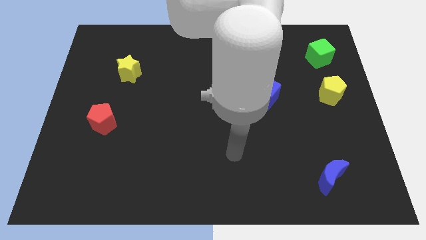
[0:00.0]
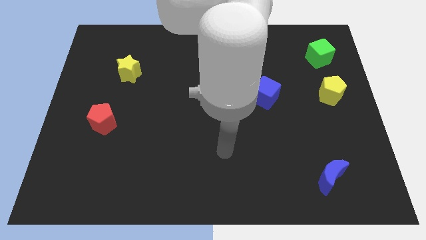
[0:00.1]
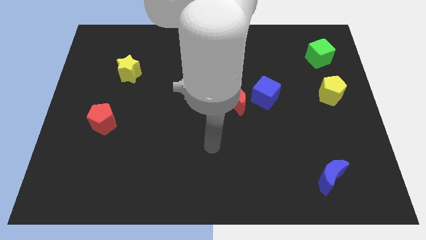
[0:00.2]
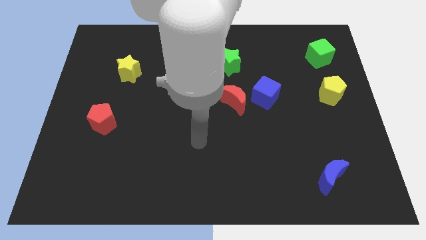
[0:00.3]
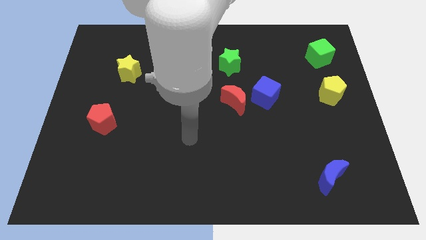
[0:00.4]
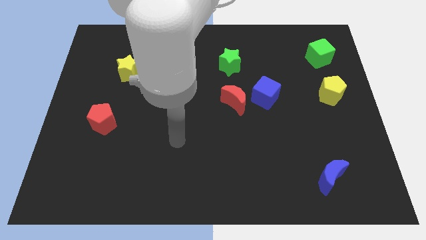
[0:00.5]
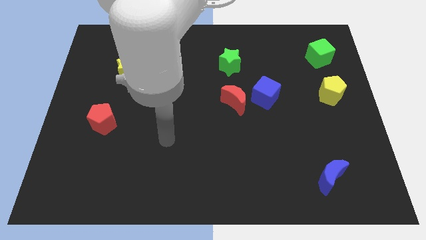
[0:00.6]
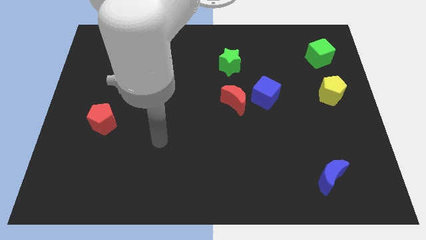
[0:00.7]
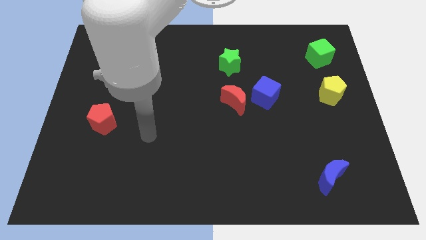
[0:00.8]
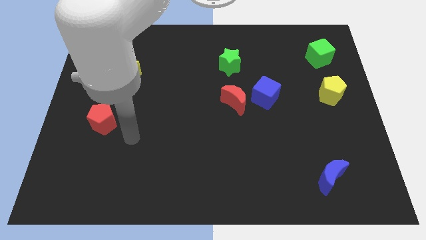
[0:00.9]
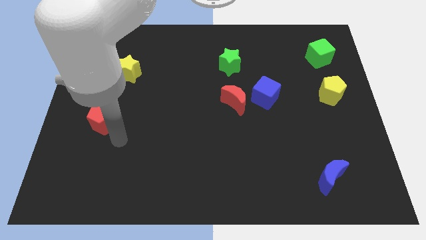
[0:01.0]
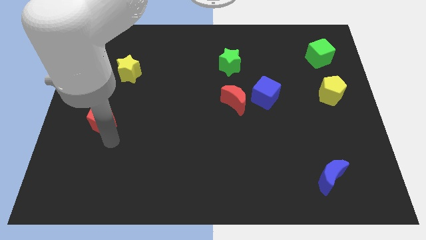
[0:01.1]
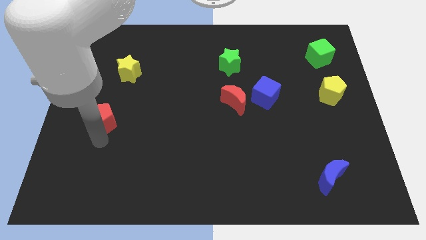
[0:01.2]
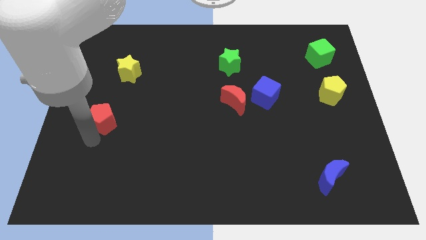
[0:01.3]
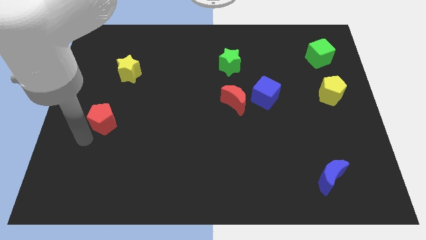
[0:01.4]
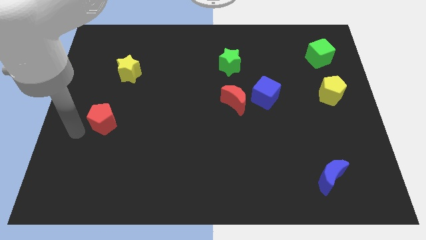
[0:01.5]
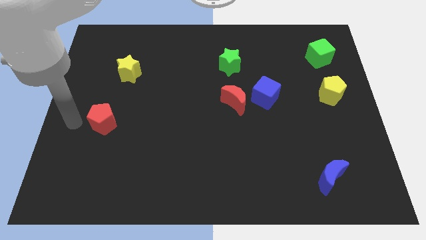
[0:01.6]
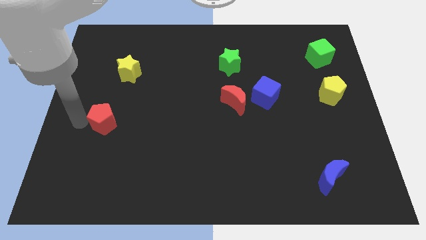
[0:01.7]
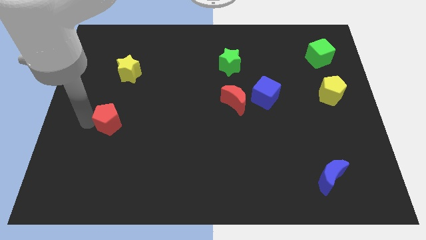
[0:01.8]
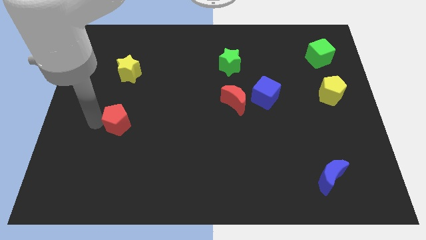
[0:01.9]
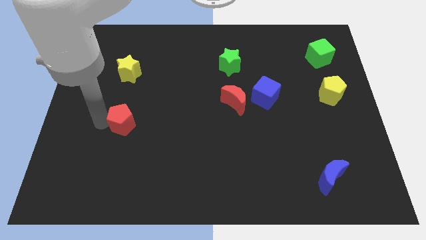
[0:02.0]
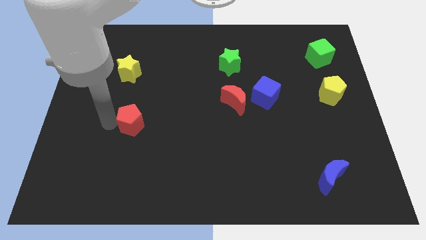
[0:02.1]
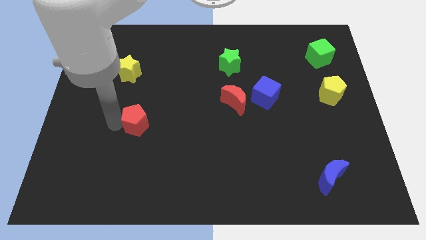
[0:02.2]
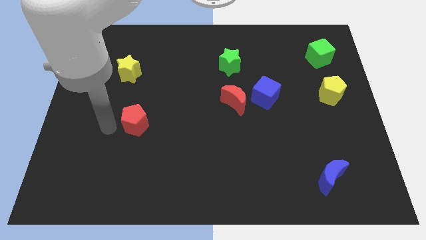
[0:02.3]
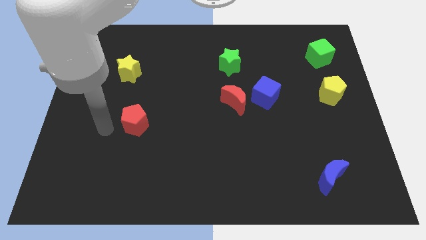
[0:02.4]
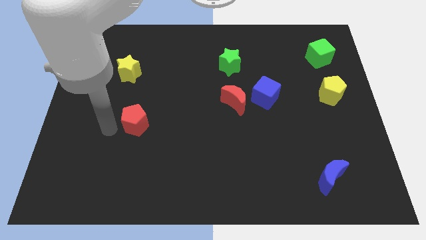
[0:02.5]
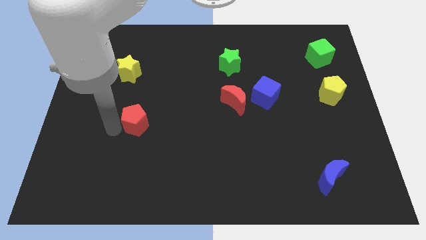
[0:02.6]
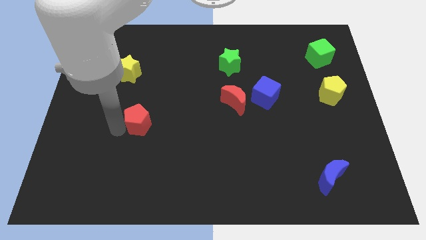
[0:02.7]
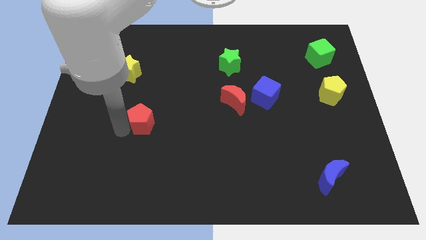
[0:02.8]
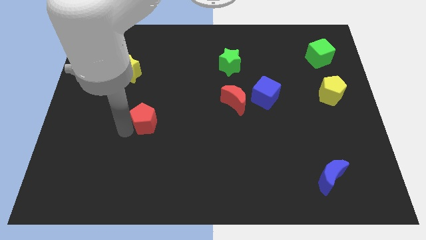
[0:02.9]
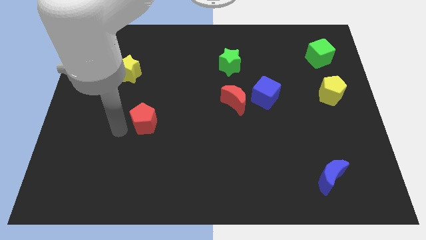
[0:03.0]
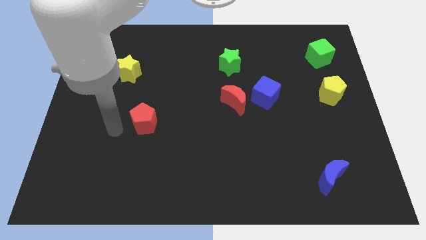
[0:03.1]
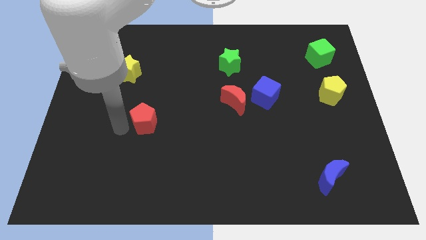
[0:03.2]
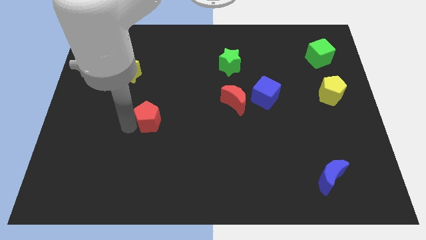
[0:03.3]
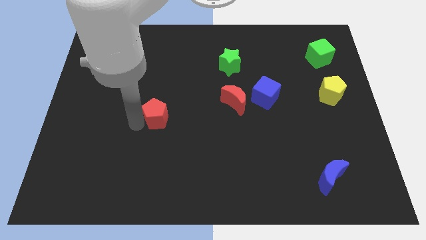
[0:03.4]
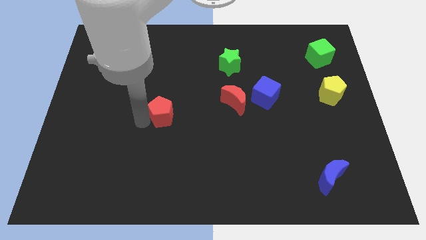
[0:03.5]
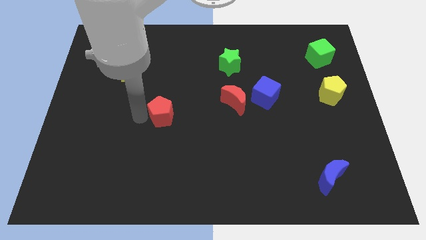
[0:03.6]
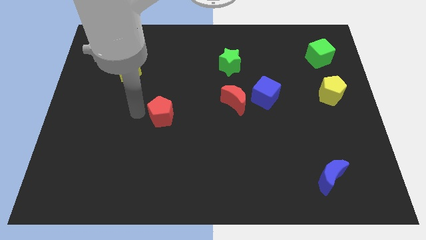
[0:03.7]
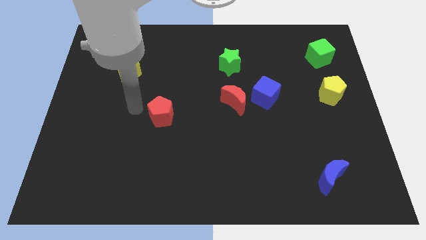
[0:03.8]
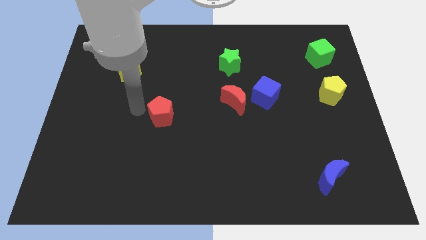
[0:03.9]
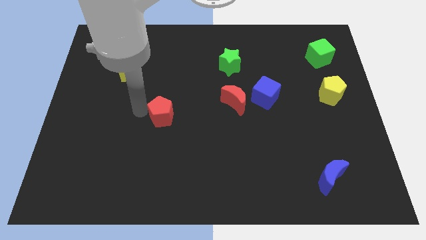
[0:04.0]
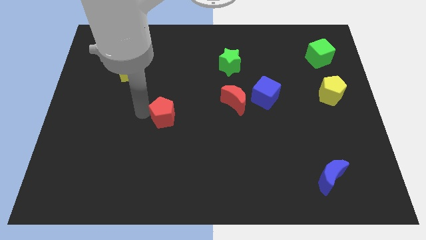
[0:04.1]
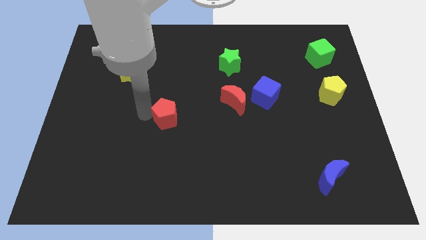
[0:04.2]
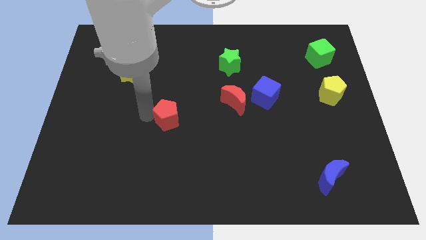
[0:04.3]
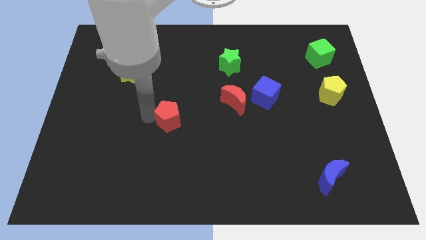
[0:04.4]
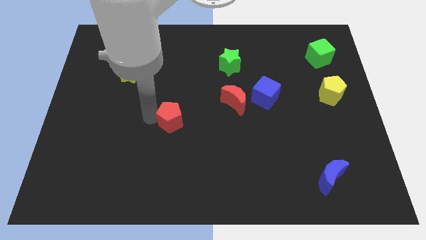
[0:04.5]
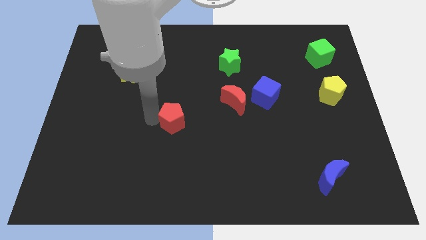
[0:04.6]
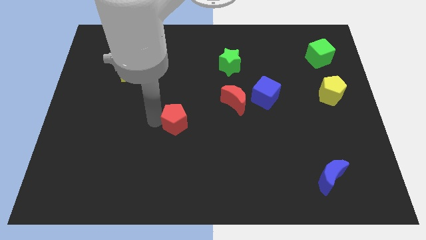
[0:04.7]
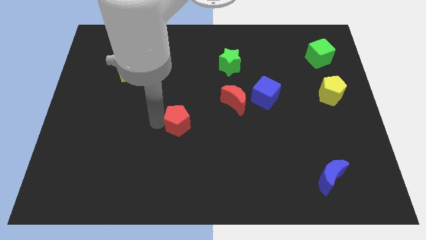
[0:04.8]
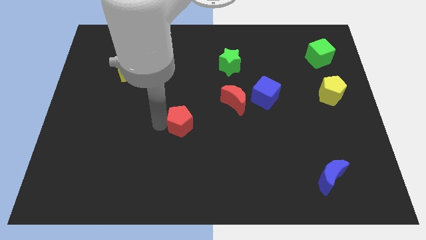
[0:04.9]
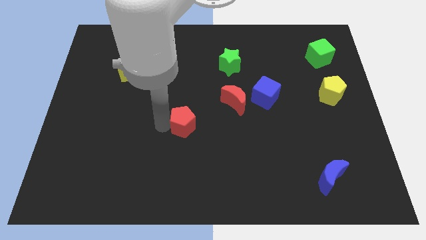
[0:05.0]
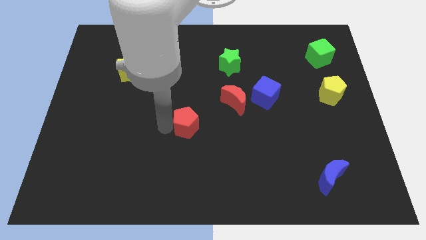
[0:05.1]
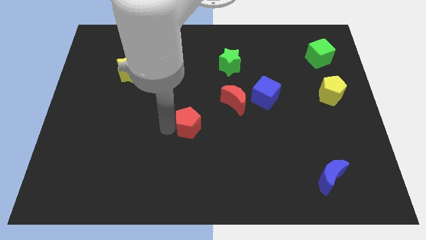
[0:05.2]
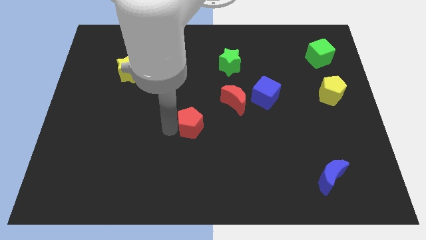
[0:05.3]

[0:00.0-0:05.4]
push the red pentagon to the right

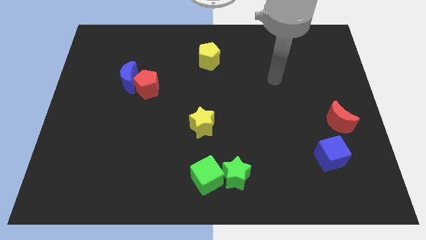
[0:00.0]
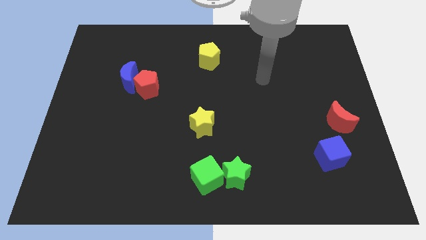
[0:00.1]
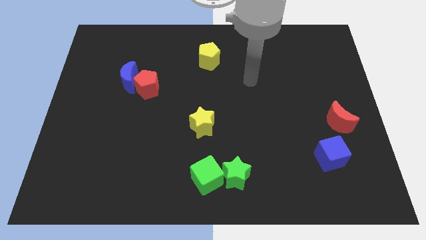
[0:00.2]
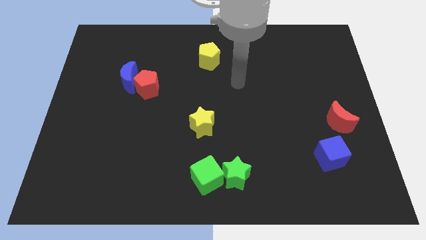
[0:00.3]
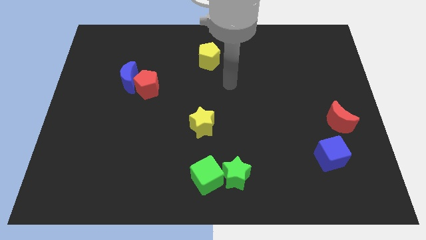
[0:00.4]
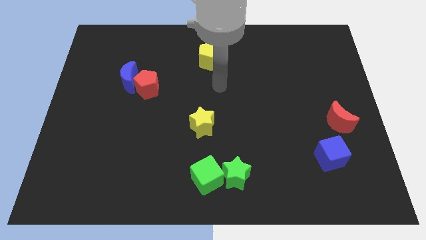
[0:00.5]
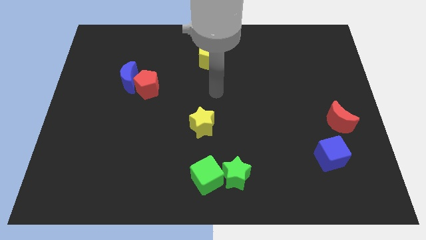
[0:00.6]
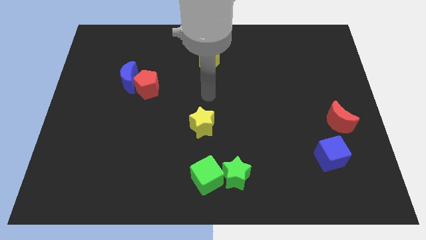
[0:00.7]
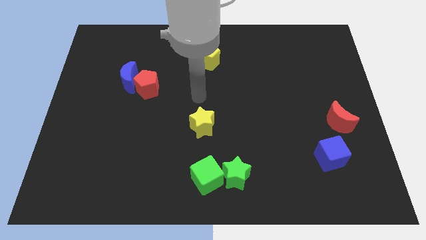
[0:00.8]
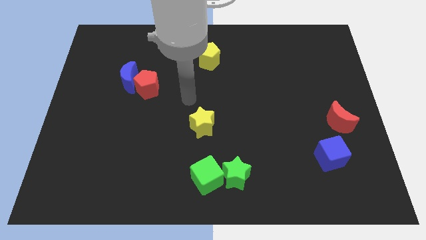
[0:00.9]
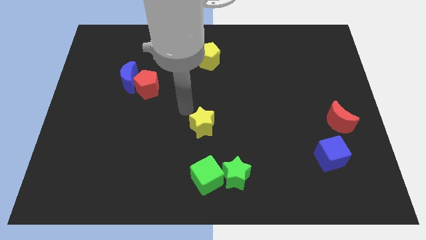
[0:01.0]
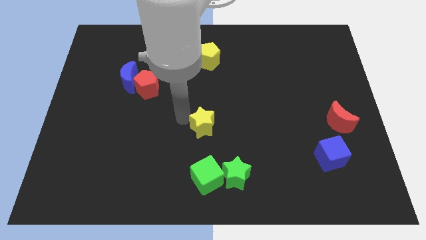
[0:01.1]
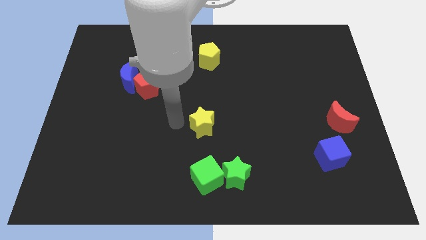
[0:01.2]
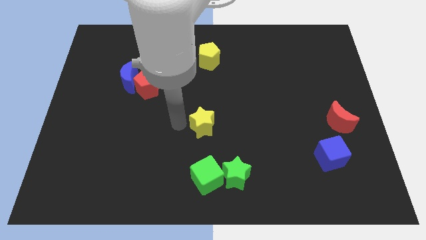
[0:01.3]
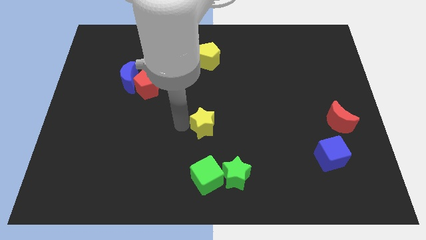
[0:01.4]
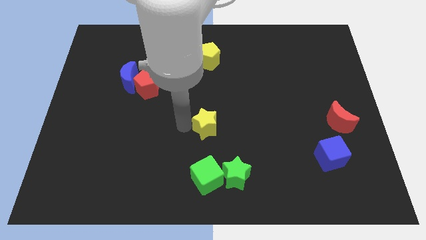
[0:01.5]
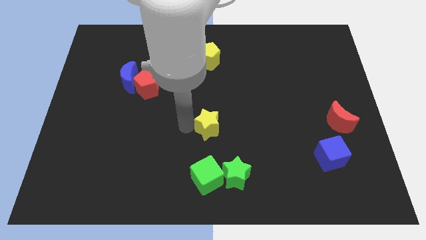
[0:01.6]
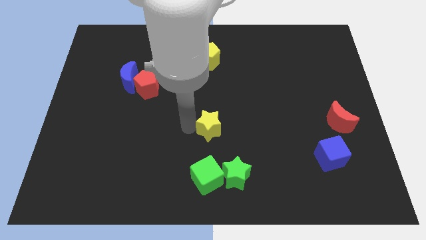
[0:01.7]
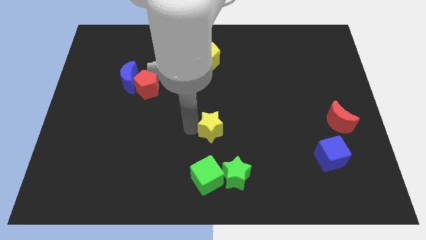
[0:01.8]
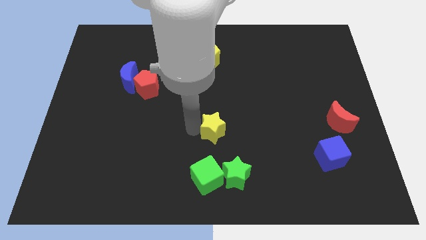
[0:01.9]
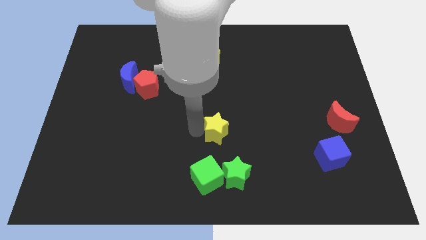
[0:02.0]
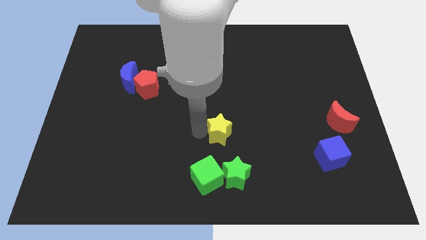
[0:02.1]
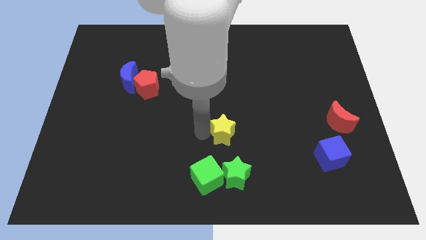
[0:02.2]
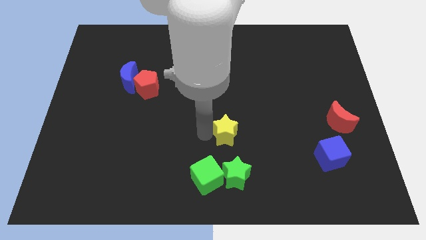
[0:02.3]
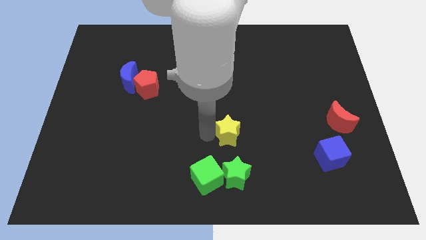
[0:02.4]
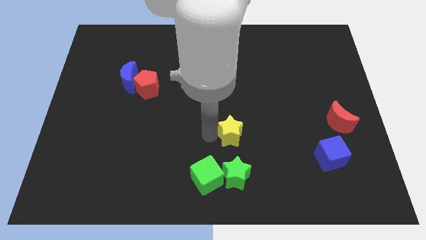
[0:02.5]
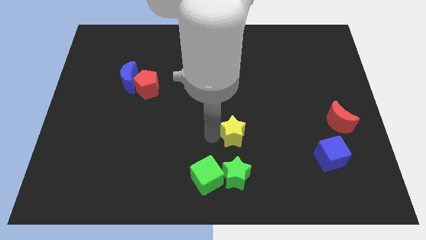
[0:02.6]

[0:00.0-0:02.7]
slightly push the yellow star to the right
